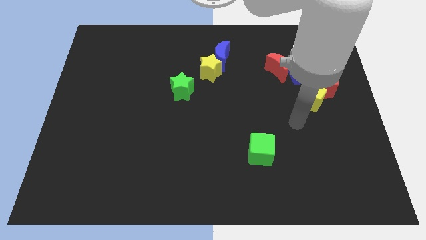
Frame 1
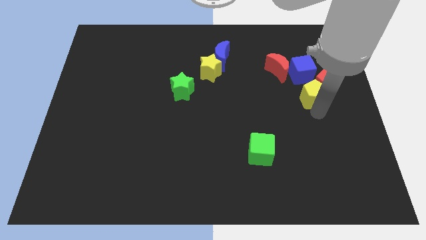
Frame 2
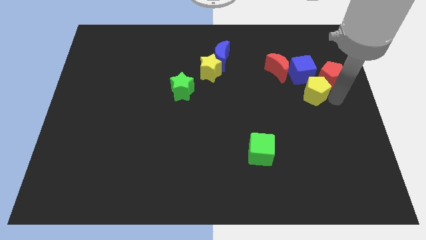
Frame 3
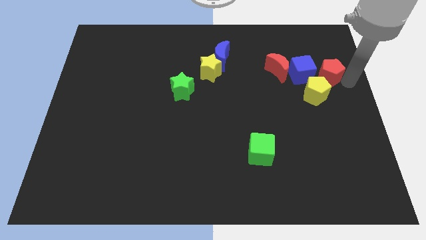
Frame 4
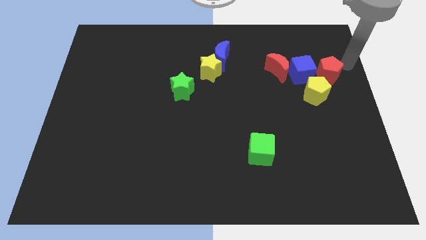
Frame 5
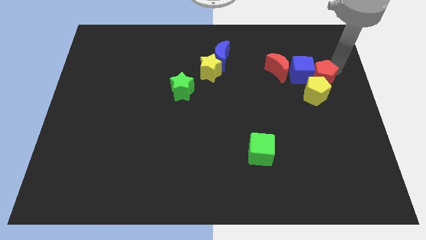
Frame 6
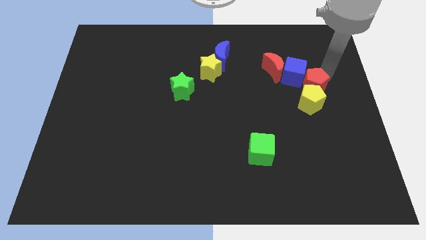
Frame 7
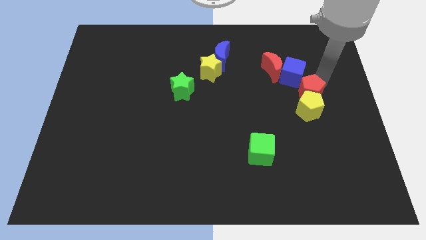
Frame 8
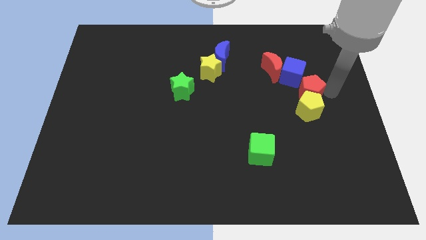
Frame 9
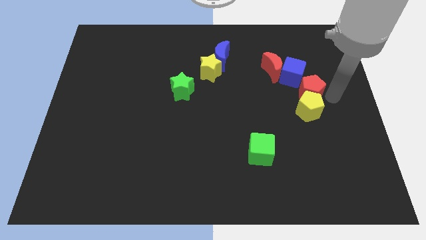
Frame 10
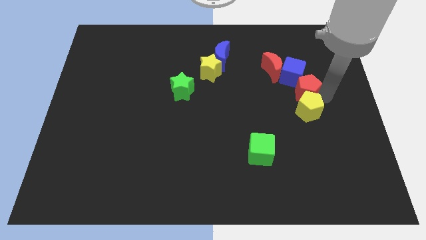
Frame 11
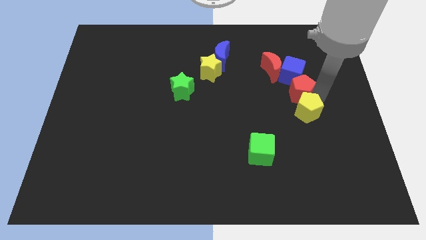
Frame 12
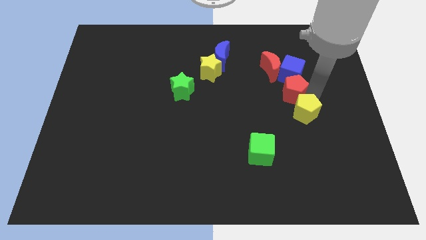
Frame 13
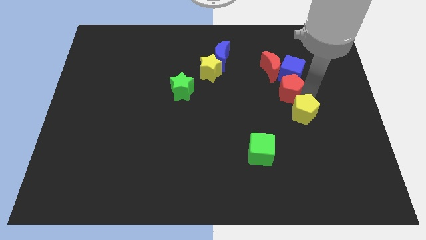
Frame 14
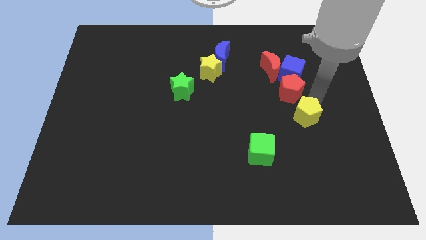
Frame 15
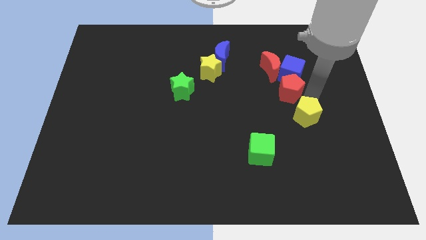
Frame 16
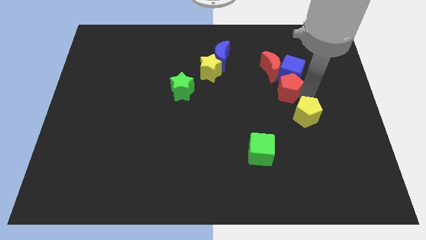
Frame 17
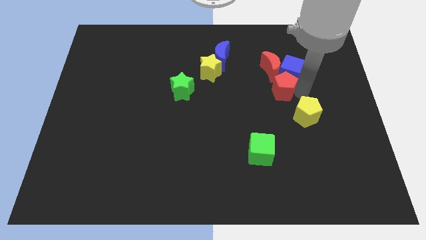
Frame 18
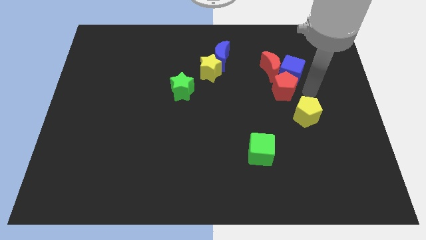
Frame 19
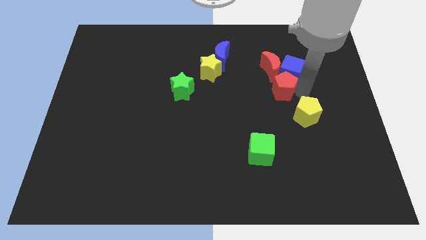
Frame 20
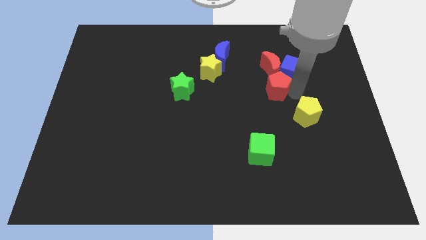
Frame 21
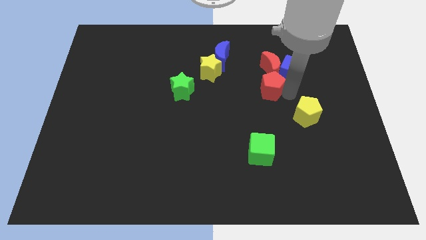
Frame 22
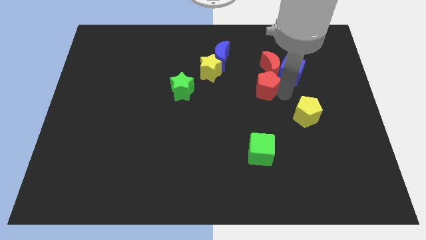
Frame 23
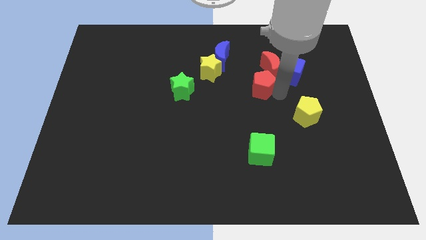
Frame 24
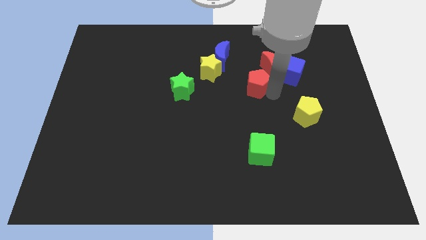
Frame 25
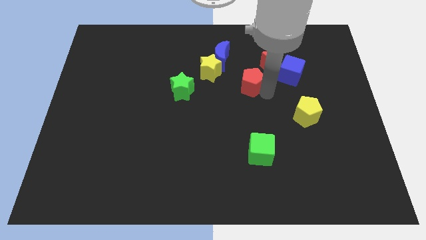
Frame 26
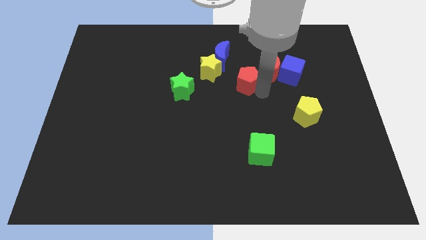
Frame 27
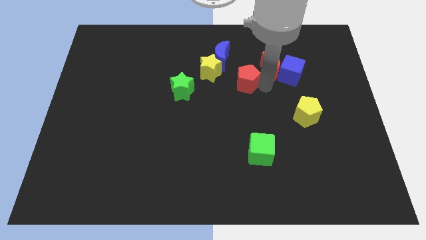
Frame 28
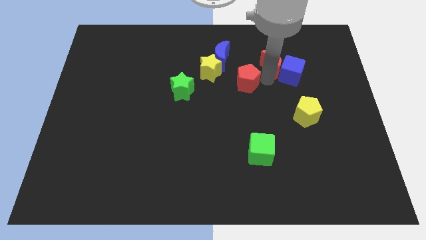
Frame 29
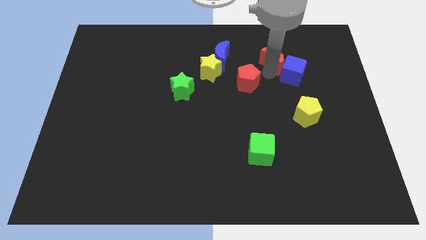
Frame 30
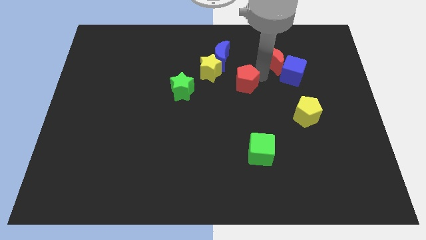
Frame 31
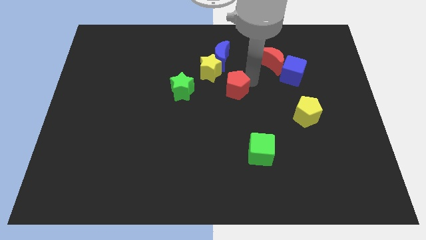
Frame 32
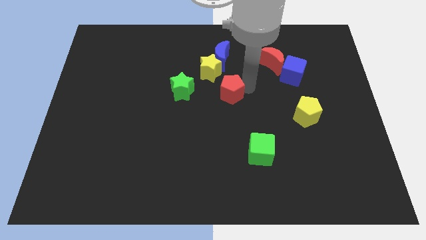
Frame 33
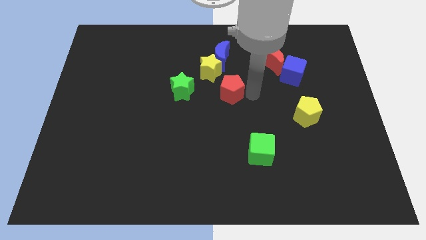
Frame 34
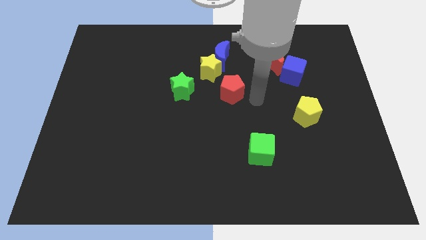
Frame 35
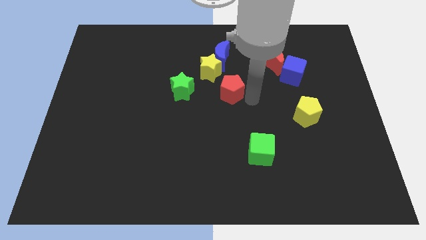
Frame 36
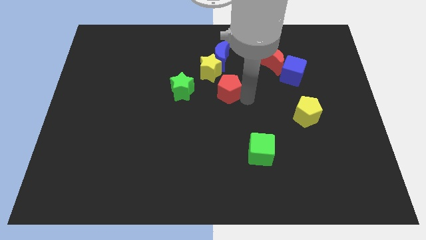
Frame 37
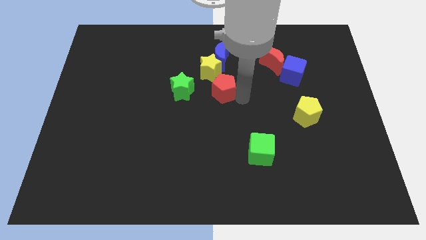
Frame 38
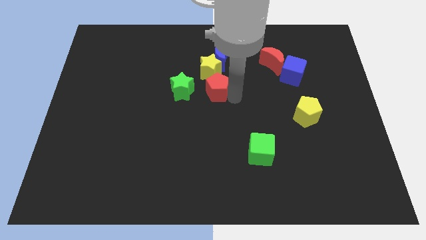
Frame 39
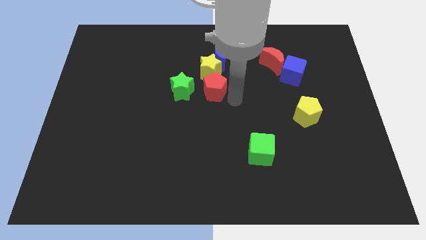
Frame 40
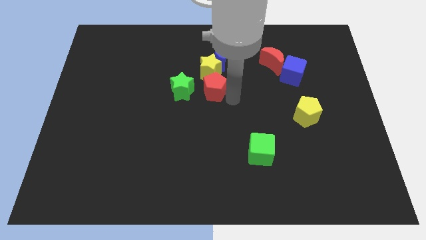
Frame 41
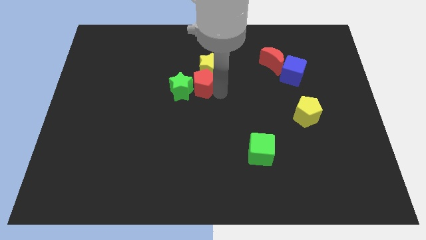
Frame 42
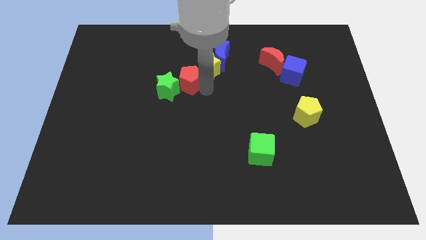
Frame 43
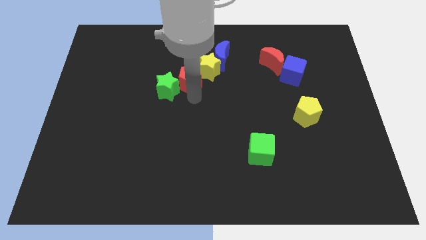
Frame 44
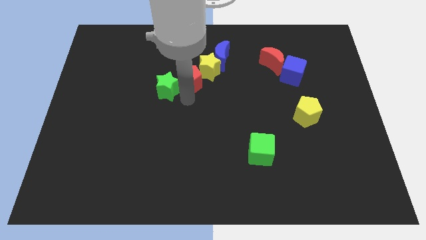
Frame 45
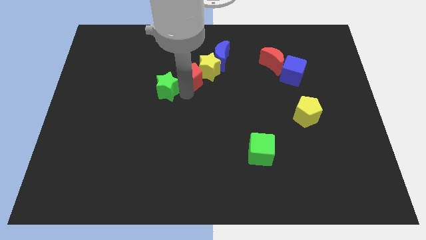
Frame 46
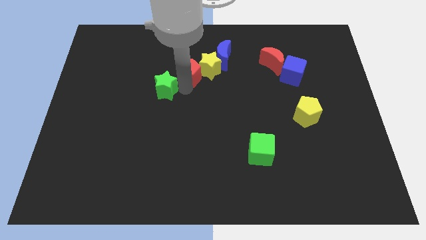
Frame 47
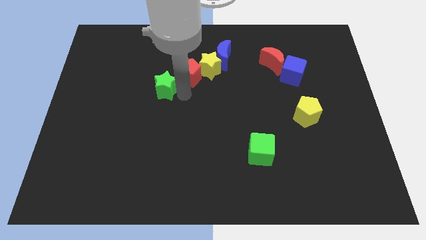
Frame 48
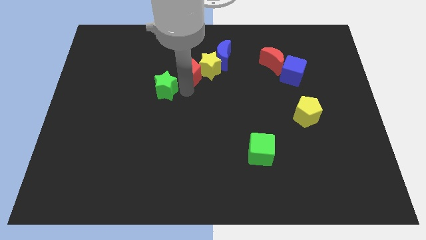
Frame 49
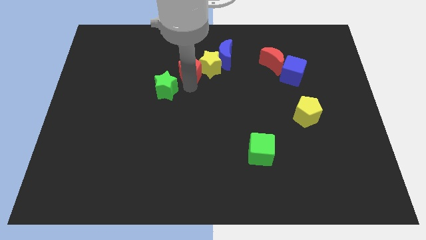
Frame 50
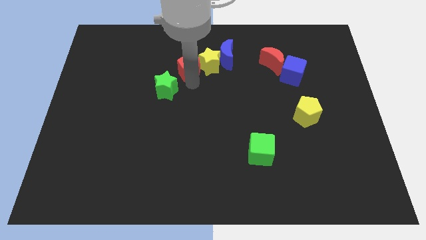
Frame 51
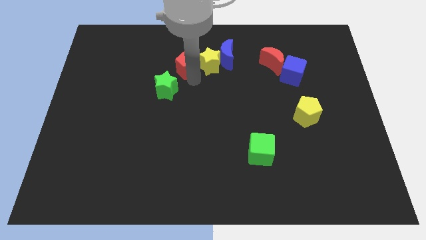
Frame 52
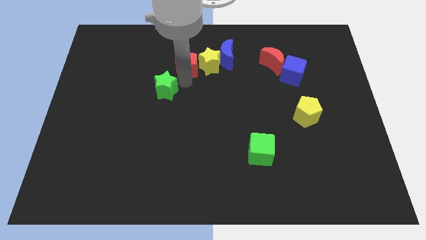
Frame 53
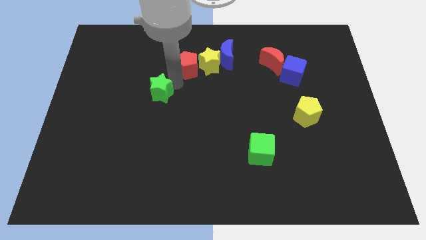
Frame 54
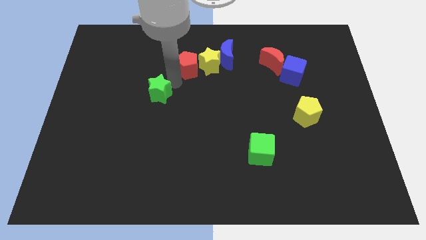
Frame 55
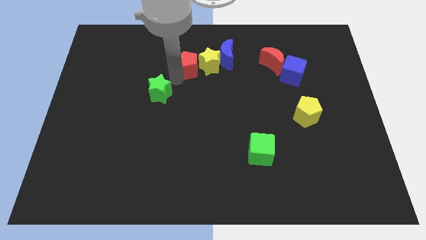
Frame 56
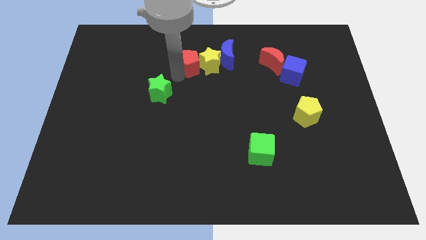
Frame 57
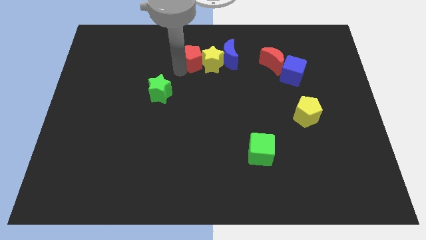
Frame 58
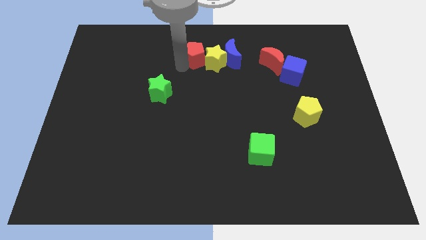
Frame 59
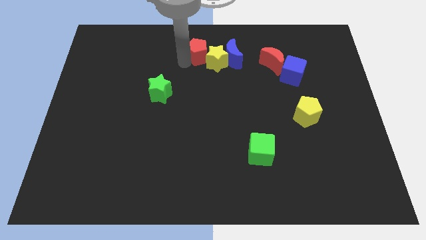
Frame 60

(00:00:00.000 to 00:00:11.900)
push the red pentagon to the top side

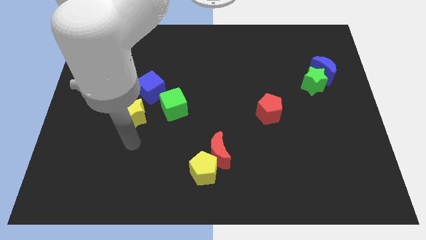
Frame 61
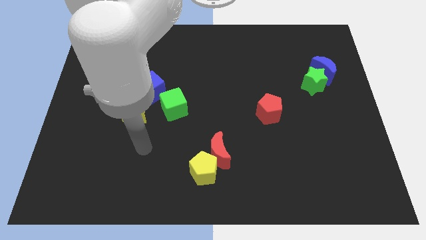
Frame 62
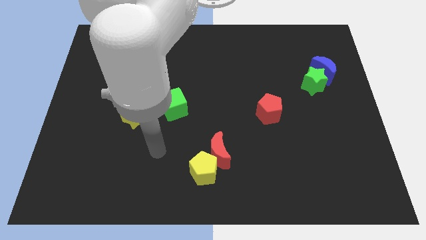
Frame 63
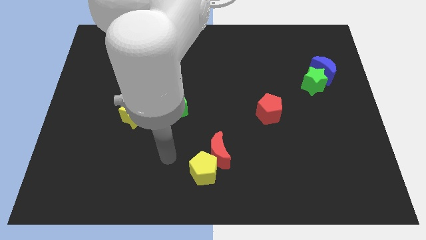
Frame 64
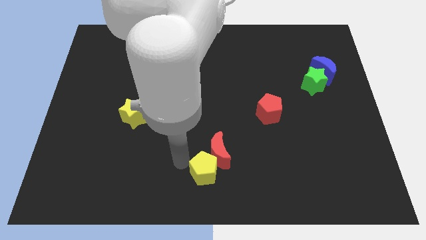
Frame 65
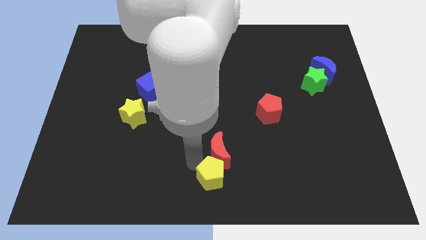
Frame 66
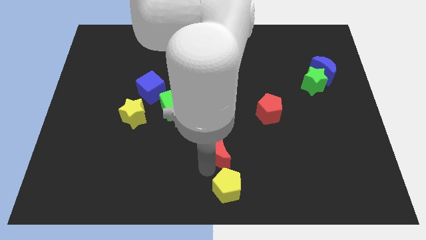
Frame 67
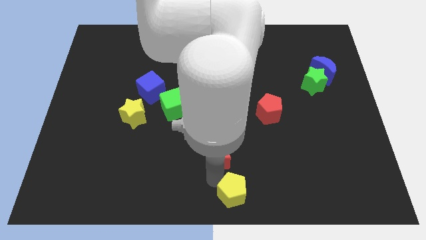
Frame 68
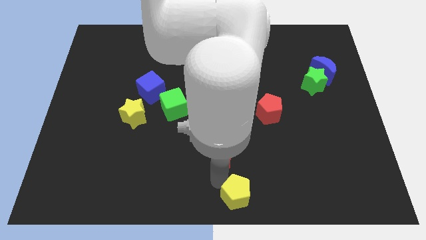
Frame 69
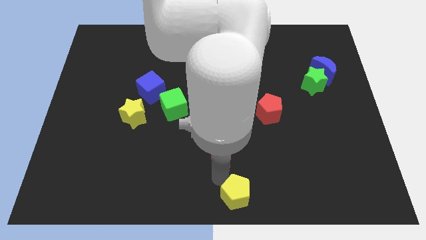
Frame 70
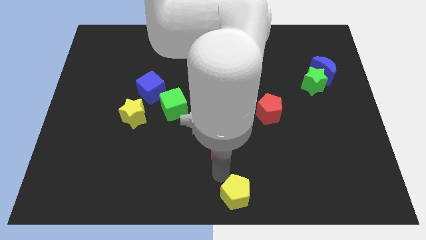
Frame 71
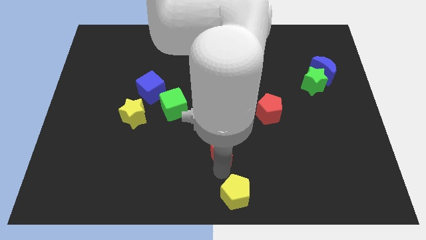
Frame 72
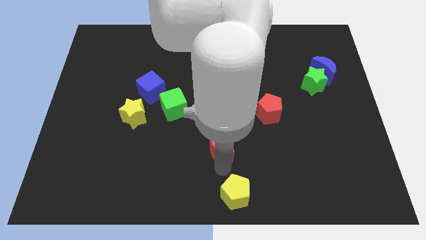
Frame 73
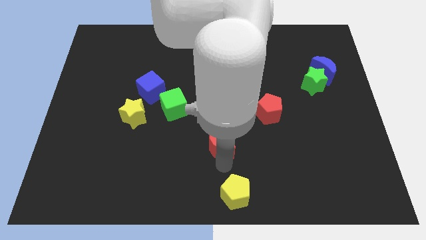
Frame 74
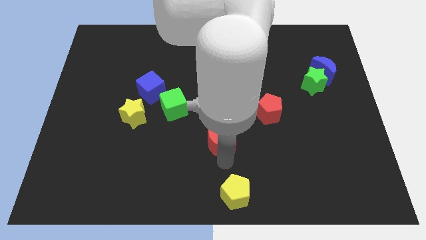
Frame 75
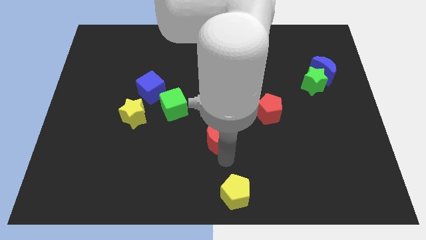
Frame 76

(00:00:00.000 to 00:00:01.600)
slide the red moon to the center of the board
